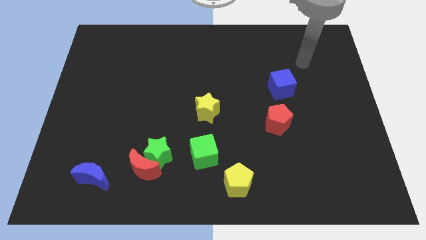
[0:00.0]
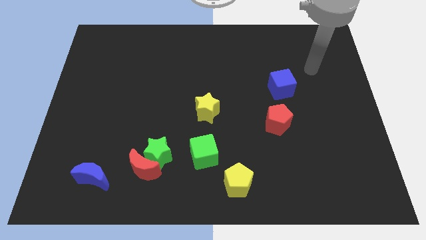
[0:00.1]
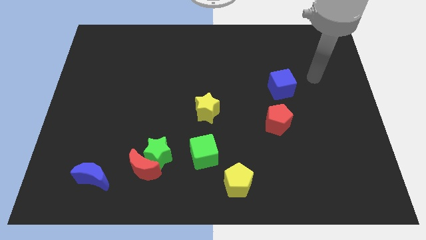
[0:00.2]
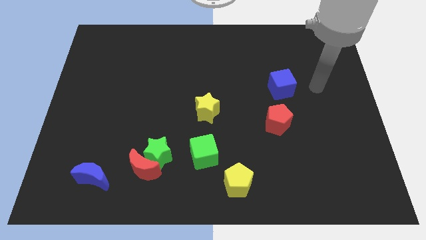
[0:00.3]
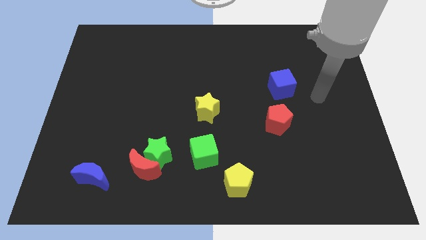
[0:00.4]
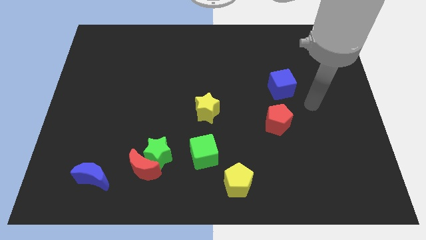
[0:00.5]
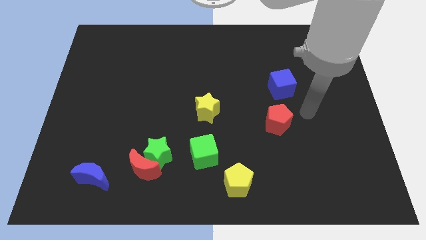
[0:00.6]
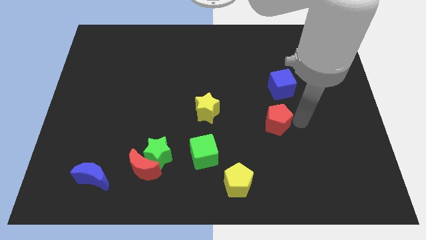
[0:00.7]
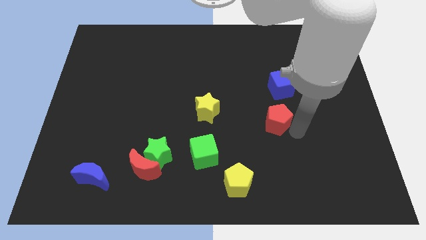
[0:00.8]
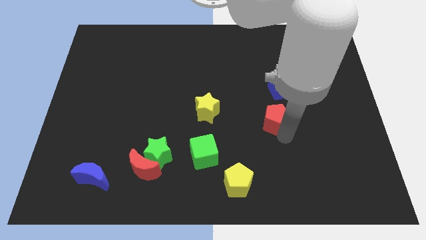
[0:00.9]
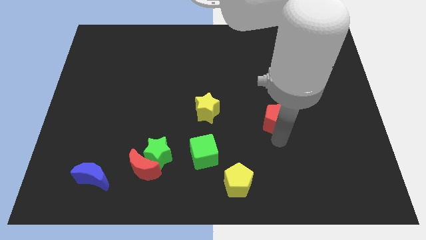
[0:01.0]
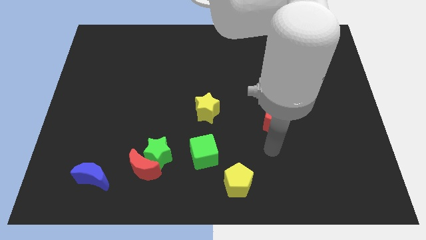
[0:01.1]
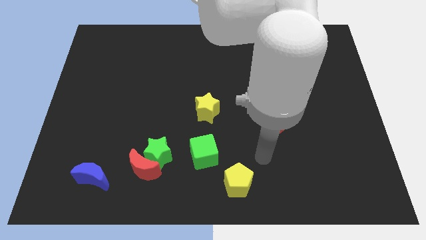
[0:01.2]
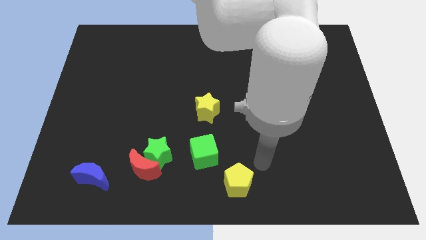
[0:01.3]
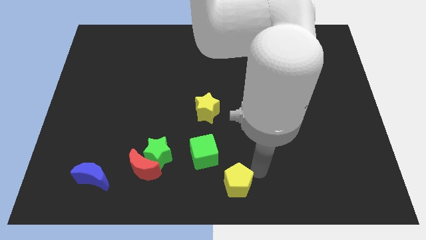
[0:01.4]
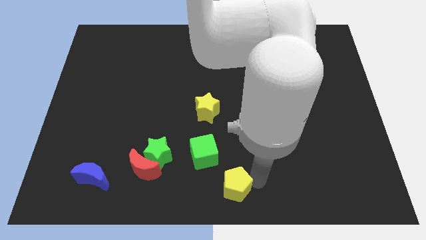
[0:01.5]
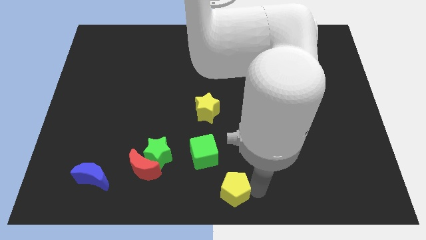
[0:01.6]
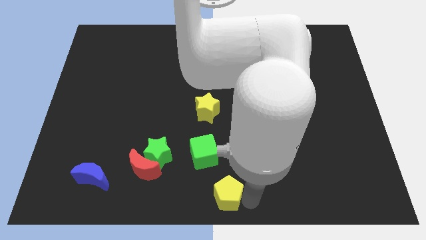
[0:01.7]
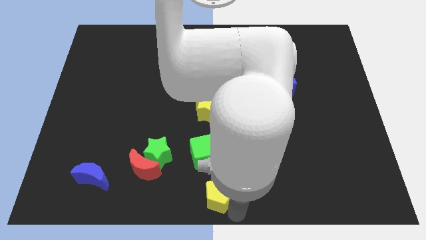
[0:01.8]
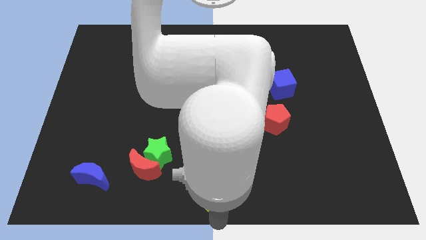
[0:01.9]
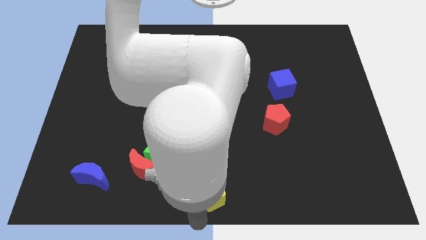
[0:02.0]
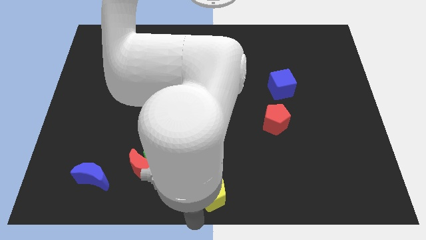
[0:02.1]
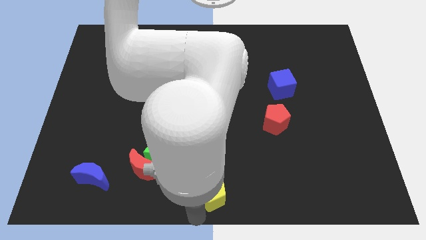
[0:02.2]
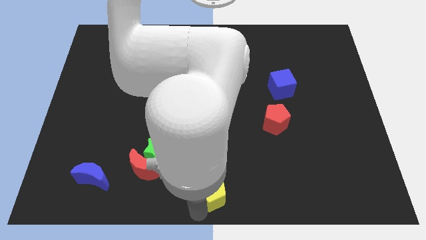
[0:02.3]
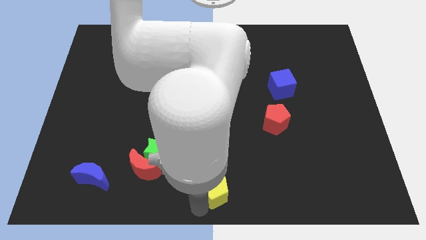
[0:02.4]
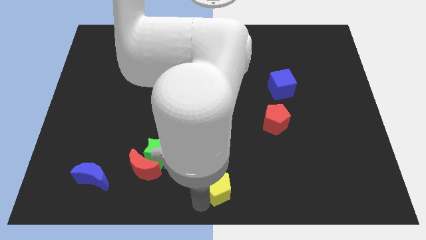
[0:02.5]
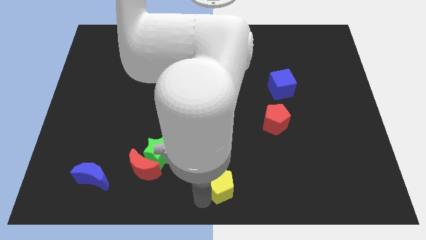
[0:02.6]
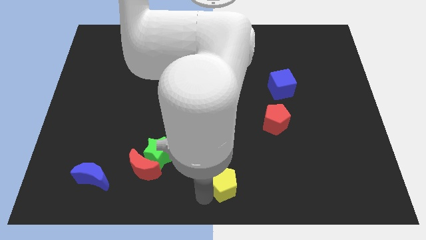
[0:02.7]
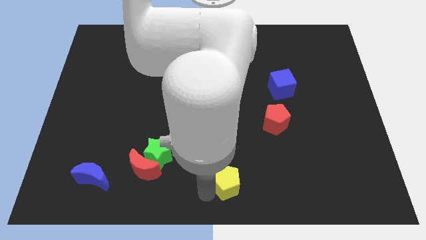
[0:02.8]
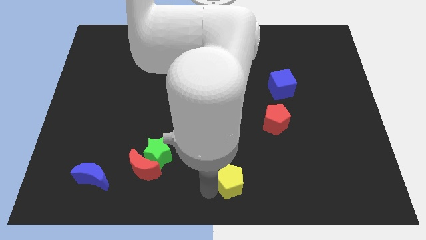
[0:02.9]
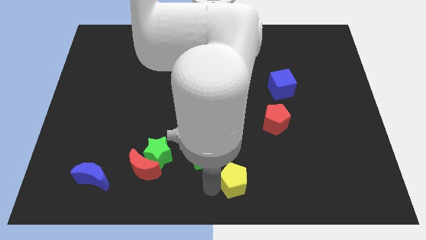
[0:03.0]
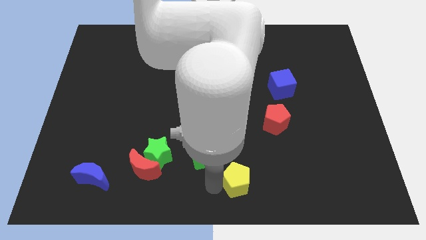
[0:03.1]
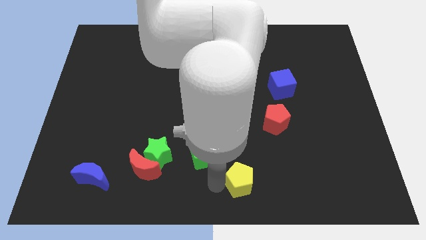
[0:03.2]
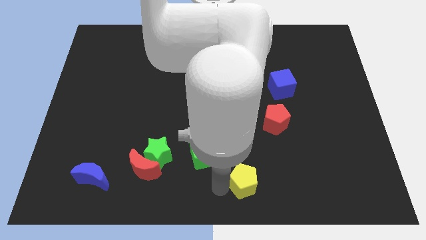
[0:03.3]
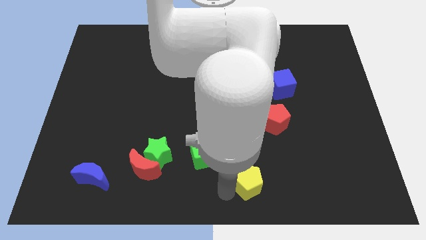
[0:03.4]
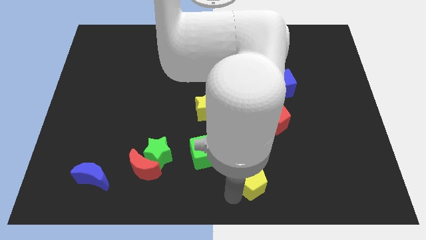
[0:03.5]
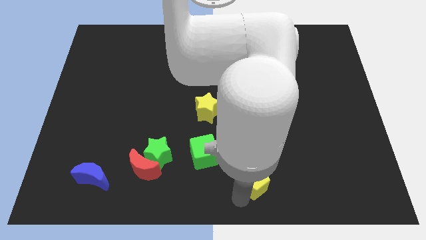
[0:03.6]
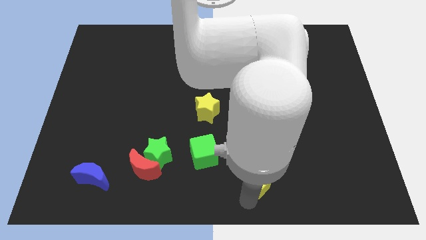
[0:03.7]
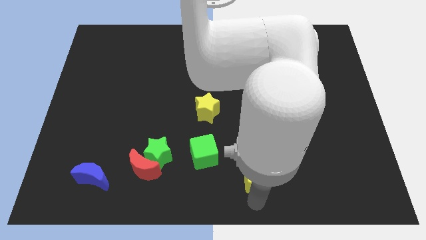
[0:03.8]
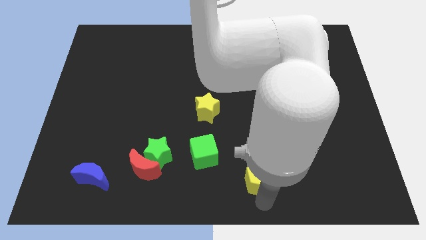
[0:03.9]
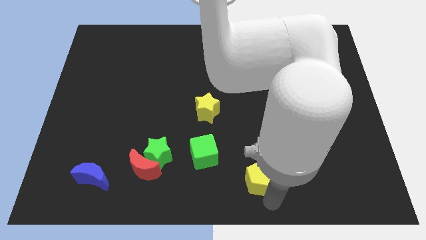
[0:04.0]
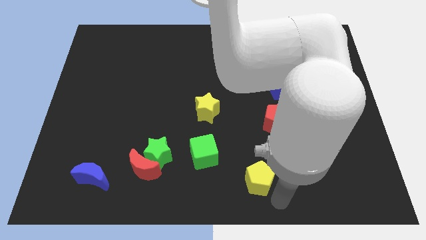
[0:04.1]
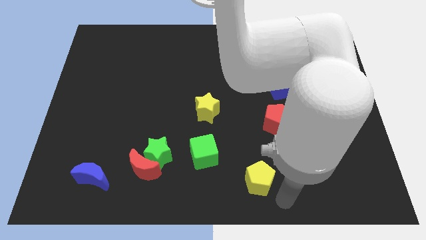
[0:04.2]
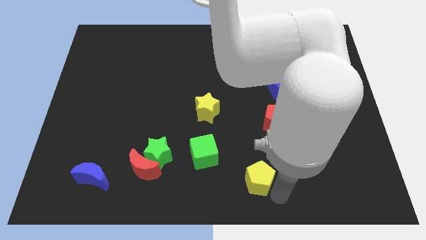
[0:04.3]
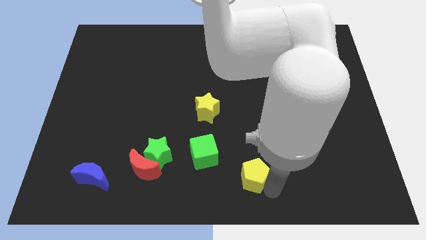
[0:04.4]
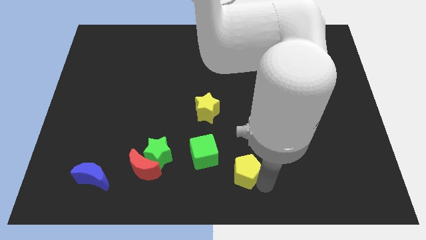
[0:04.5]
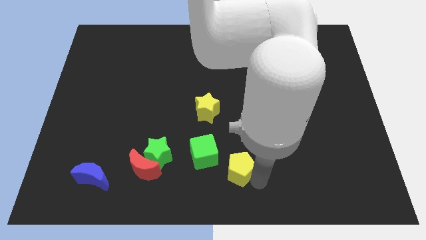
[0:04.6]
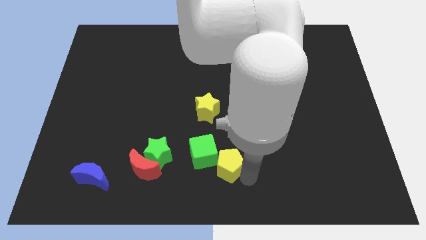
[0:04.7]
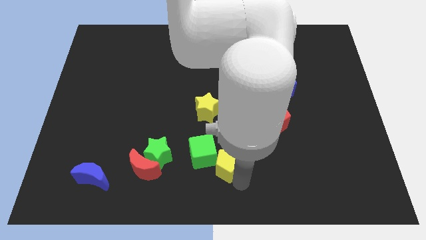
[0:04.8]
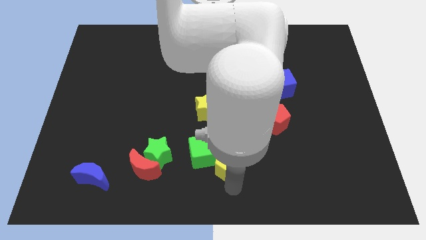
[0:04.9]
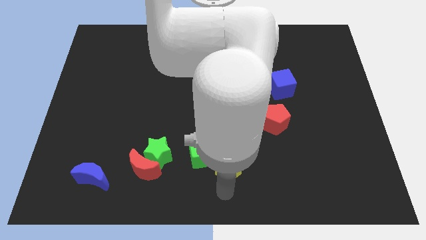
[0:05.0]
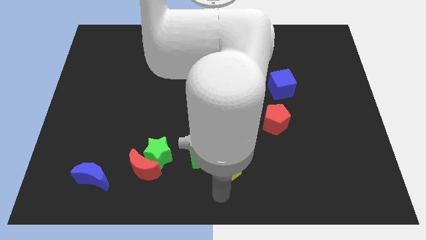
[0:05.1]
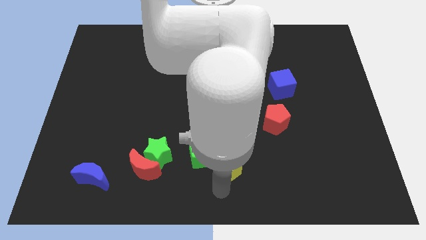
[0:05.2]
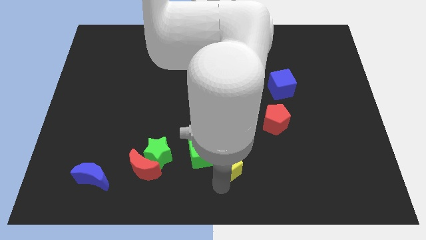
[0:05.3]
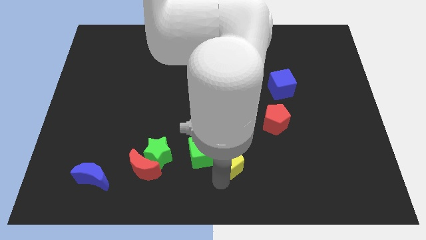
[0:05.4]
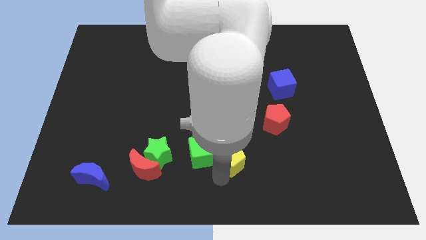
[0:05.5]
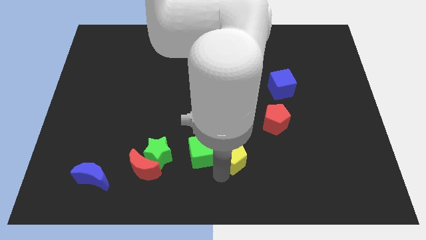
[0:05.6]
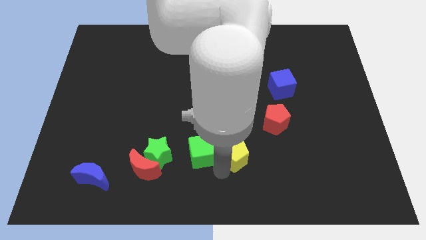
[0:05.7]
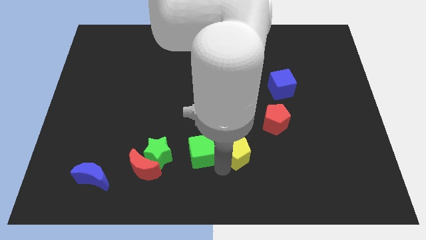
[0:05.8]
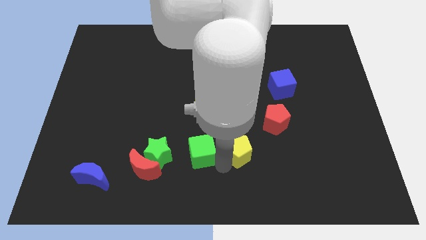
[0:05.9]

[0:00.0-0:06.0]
slightly move the yellow pentagon up

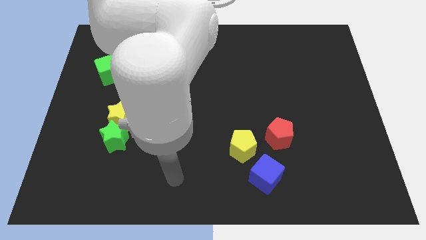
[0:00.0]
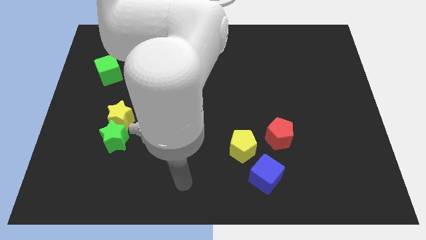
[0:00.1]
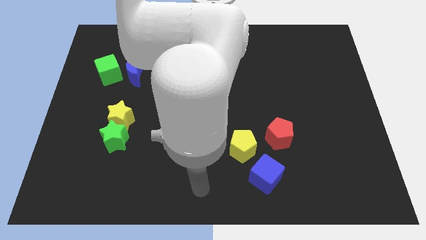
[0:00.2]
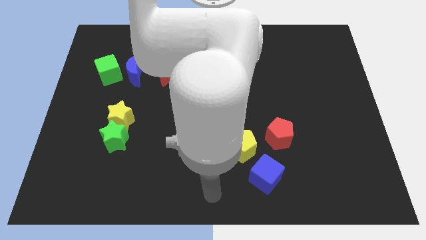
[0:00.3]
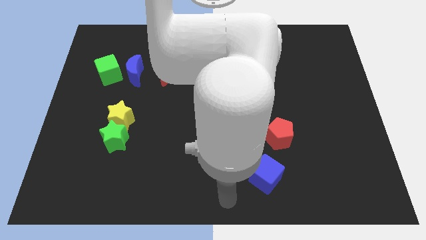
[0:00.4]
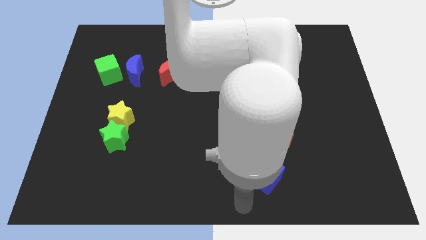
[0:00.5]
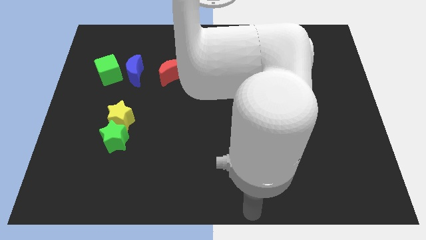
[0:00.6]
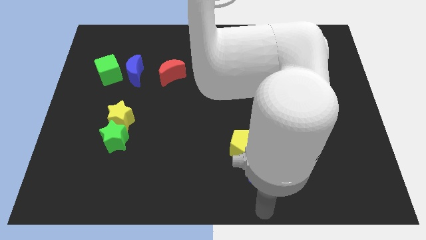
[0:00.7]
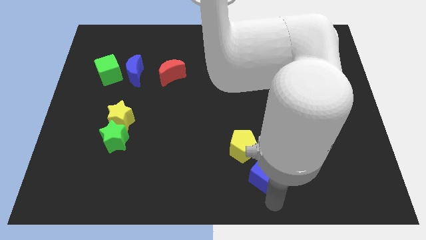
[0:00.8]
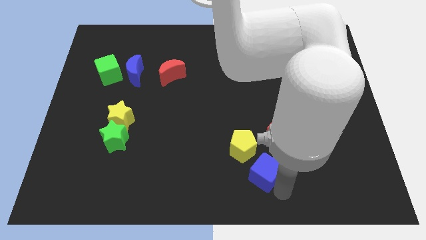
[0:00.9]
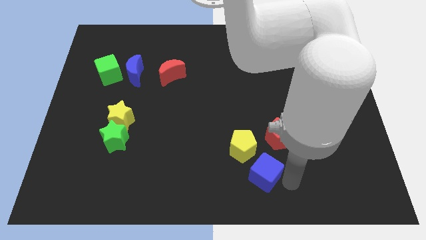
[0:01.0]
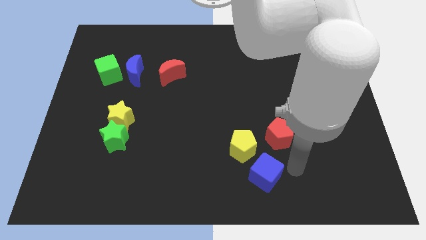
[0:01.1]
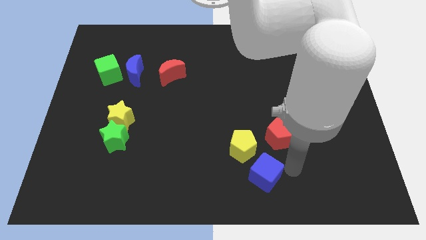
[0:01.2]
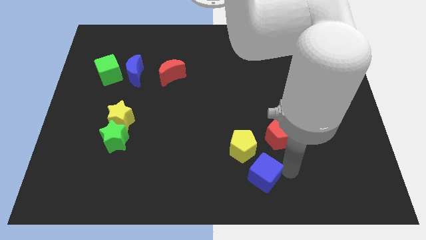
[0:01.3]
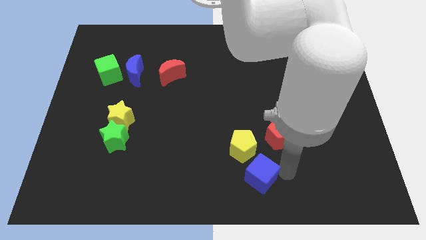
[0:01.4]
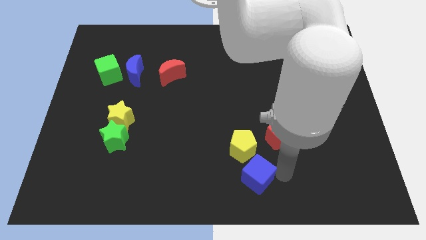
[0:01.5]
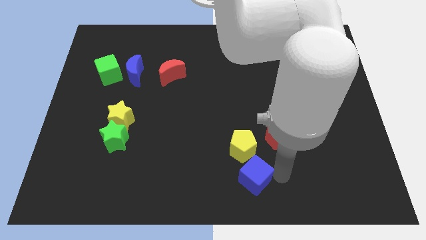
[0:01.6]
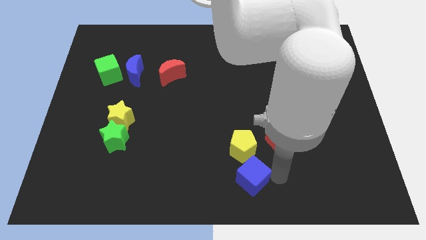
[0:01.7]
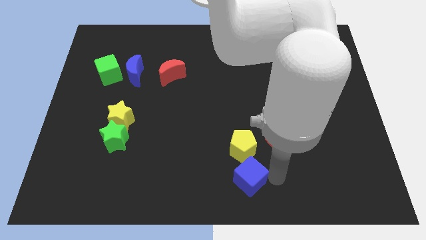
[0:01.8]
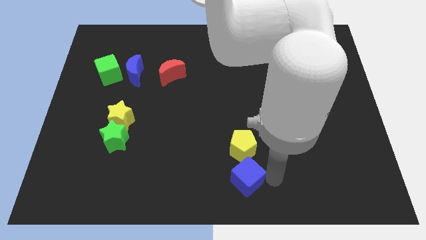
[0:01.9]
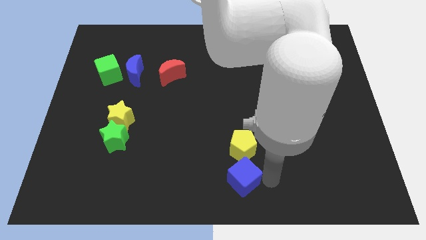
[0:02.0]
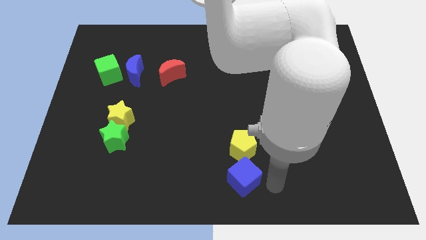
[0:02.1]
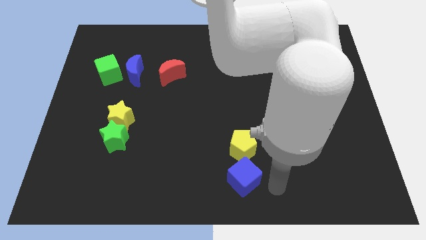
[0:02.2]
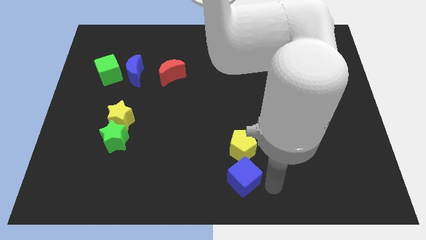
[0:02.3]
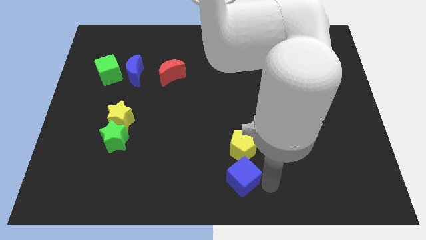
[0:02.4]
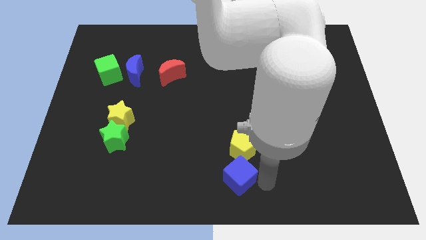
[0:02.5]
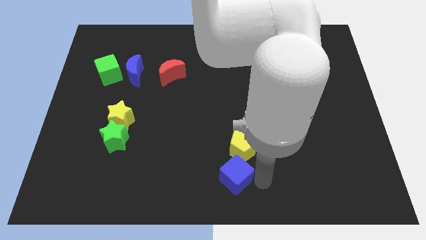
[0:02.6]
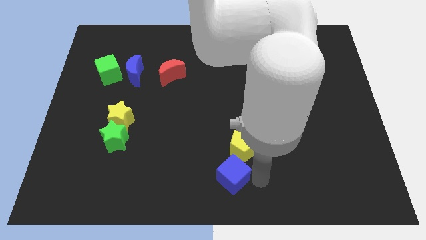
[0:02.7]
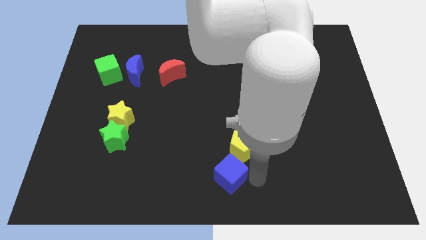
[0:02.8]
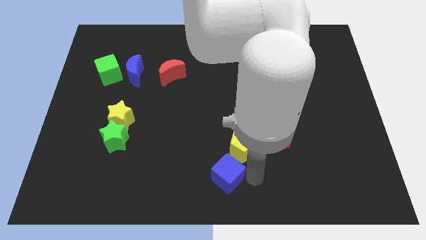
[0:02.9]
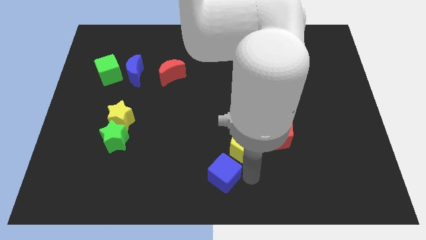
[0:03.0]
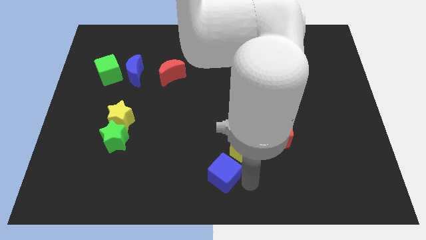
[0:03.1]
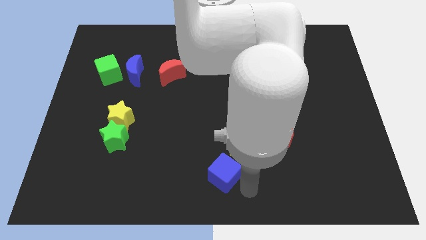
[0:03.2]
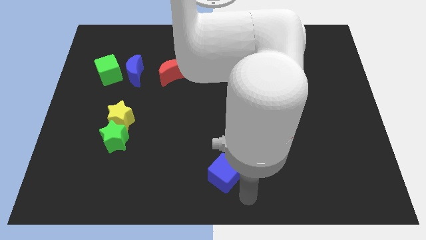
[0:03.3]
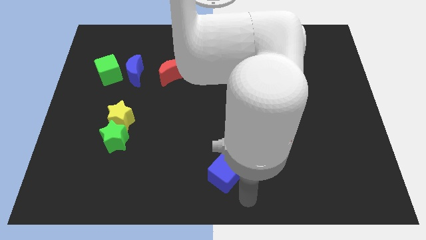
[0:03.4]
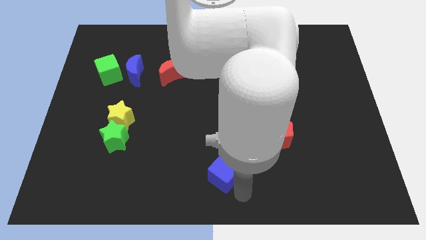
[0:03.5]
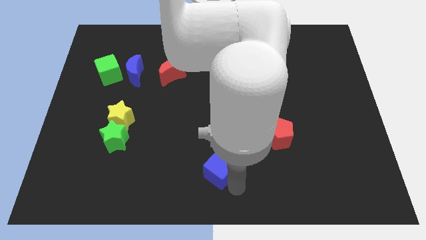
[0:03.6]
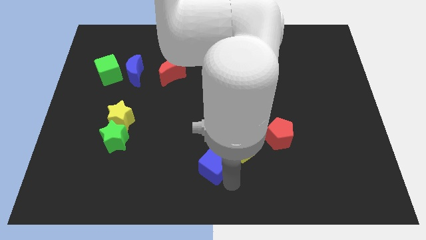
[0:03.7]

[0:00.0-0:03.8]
move the blue cube upwards and to the left diagonally somewhat
